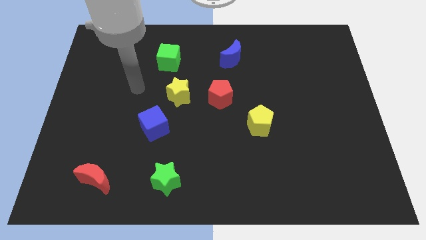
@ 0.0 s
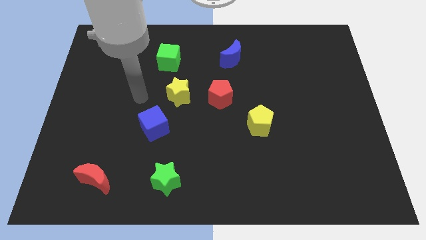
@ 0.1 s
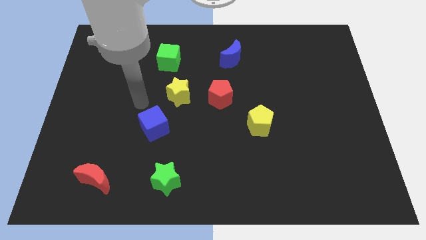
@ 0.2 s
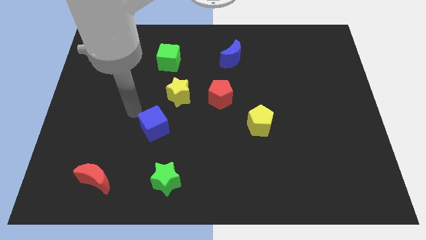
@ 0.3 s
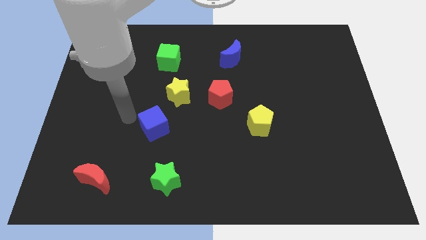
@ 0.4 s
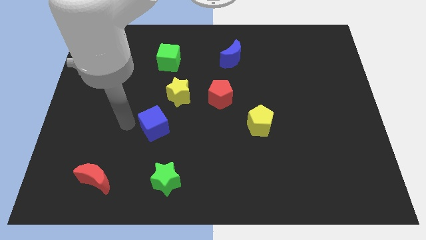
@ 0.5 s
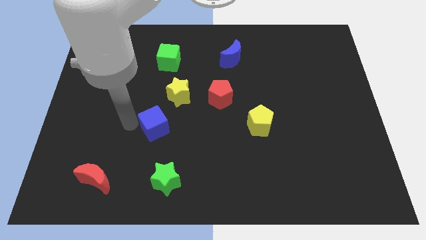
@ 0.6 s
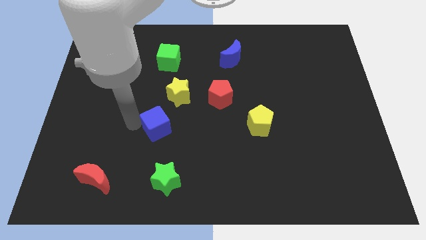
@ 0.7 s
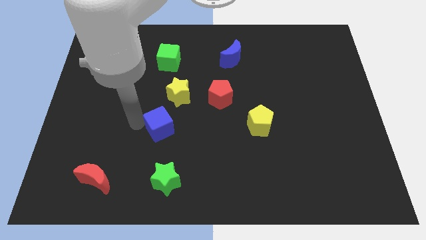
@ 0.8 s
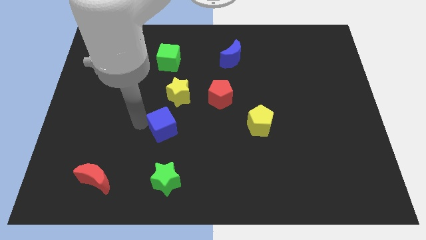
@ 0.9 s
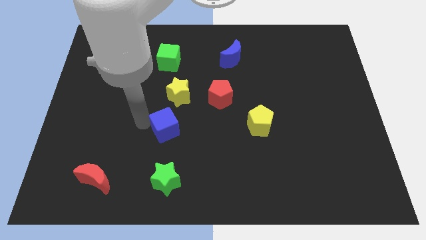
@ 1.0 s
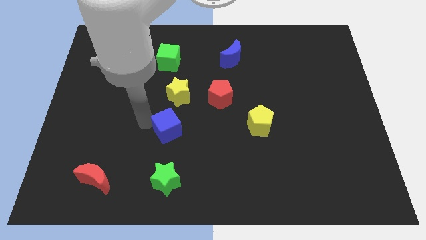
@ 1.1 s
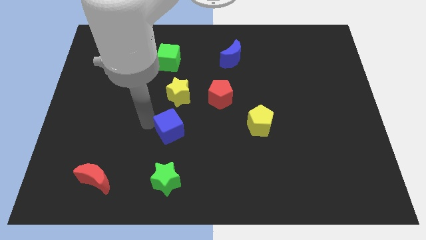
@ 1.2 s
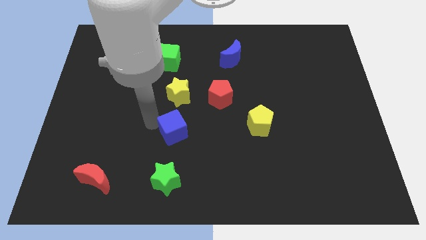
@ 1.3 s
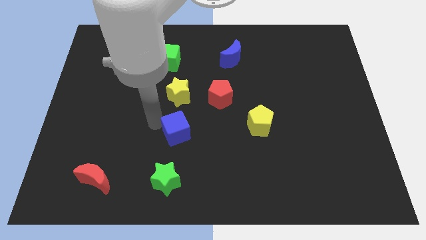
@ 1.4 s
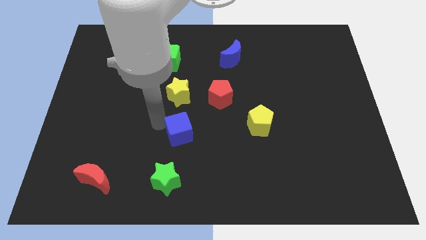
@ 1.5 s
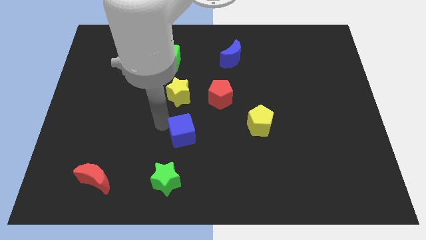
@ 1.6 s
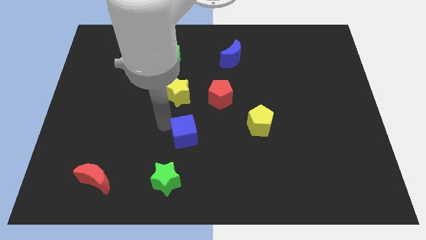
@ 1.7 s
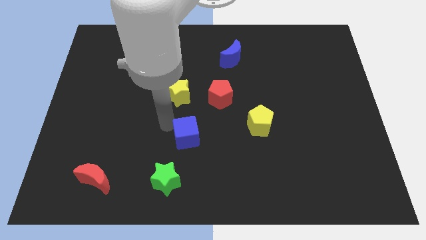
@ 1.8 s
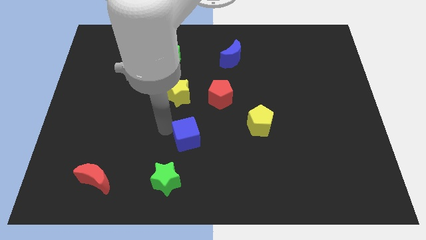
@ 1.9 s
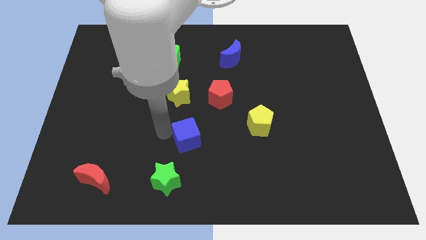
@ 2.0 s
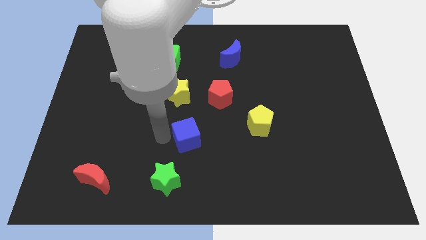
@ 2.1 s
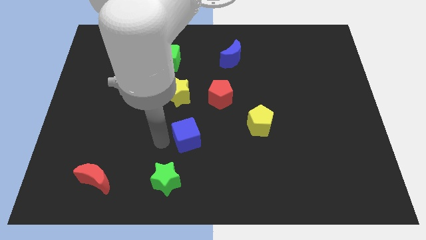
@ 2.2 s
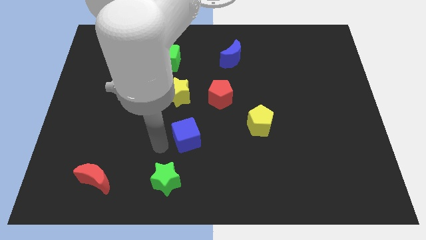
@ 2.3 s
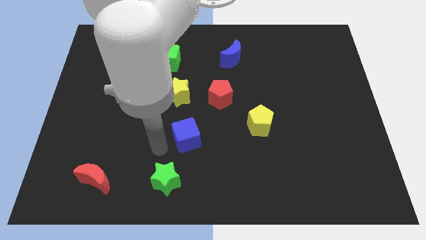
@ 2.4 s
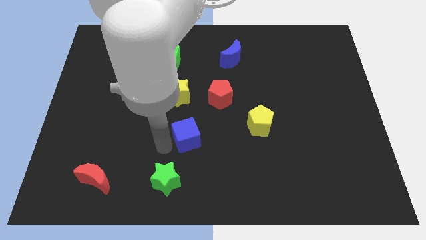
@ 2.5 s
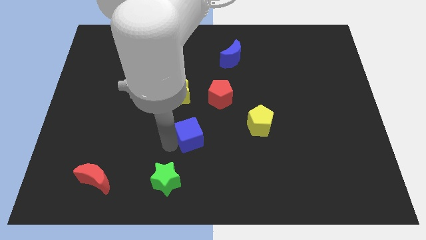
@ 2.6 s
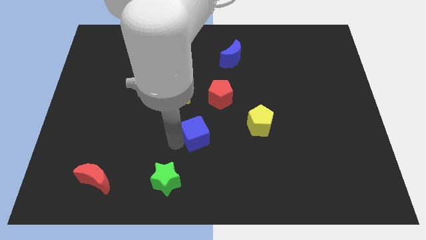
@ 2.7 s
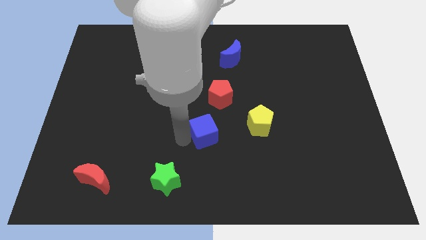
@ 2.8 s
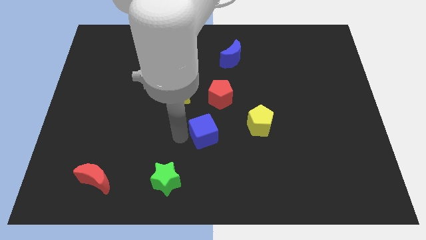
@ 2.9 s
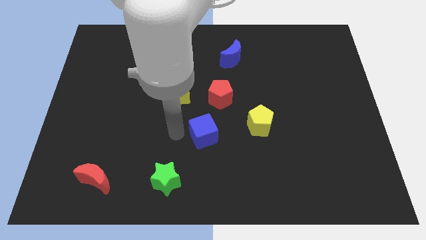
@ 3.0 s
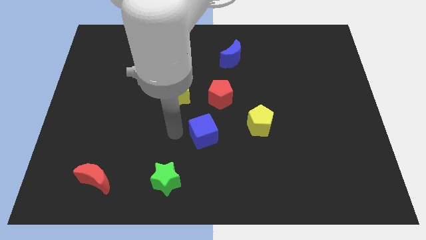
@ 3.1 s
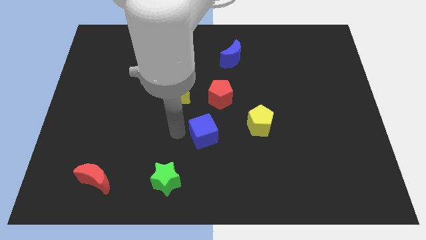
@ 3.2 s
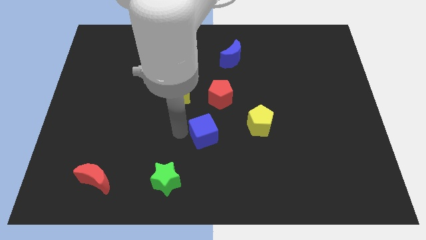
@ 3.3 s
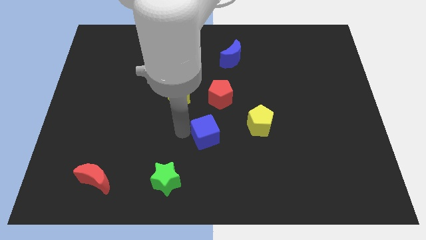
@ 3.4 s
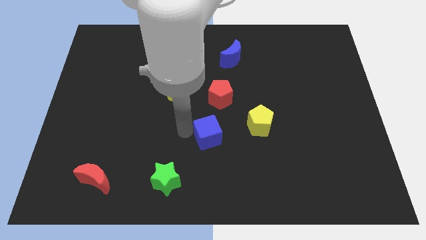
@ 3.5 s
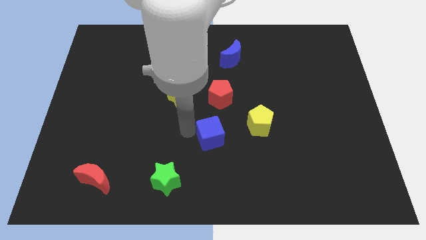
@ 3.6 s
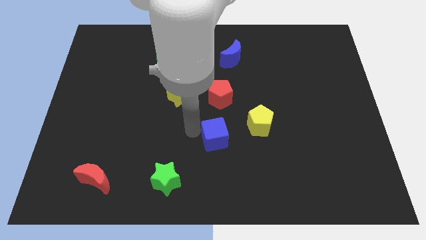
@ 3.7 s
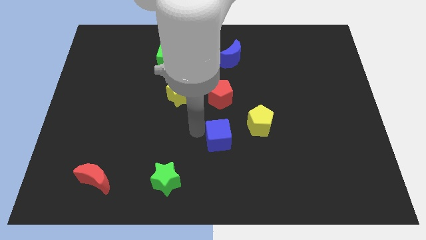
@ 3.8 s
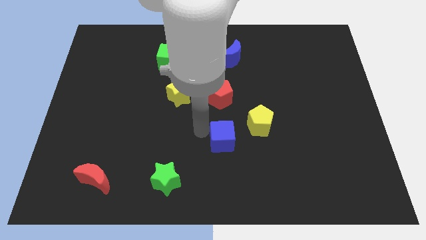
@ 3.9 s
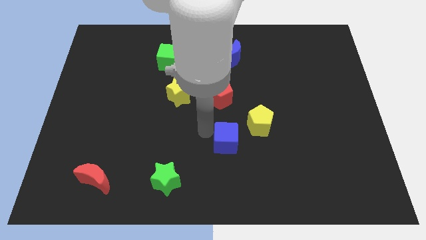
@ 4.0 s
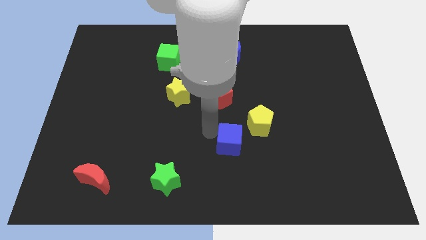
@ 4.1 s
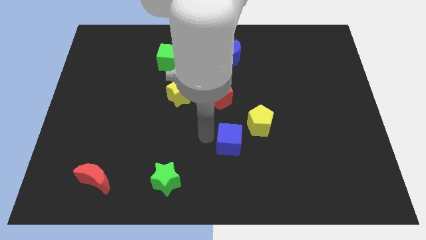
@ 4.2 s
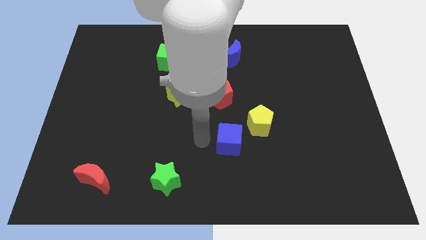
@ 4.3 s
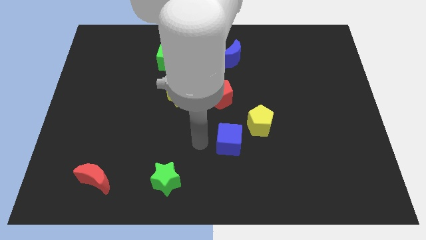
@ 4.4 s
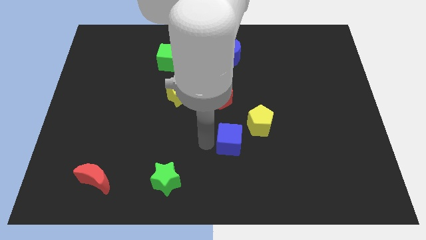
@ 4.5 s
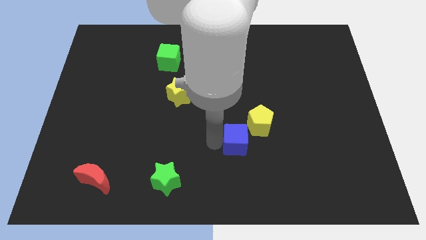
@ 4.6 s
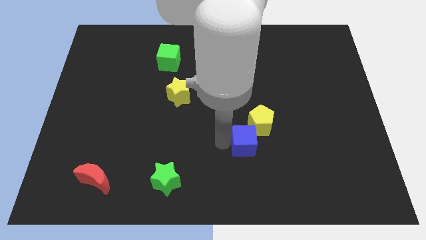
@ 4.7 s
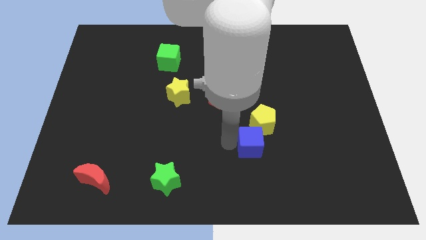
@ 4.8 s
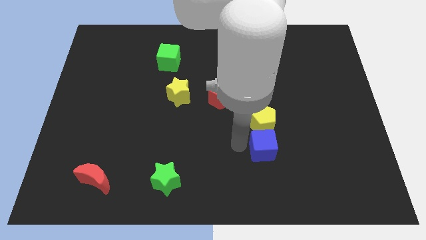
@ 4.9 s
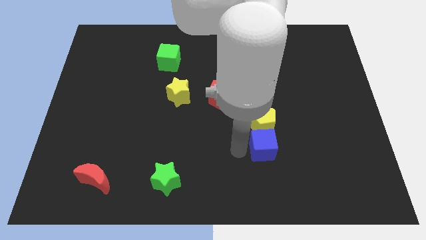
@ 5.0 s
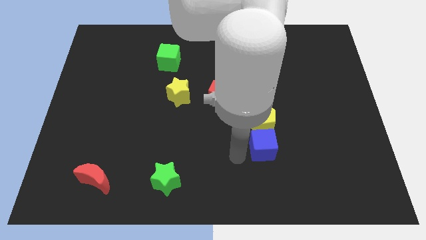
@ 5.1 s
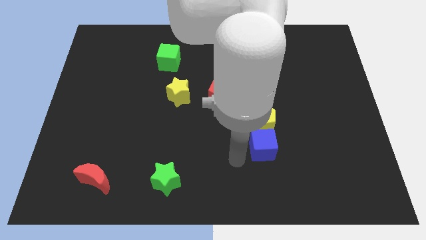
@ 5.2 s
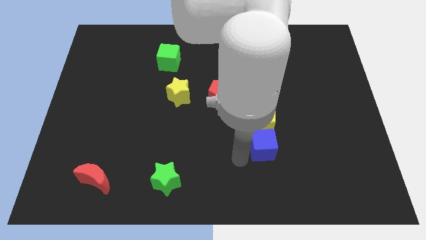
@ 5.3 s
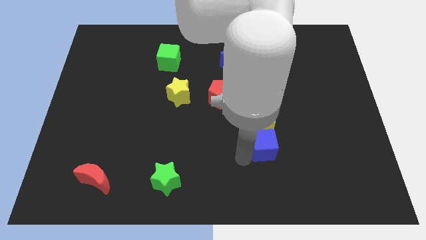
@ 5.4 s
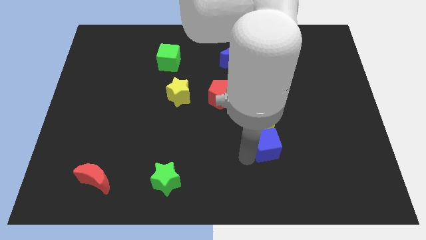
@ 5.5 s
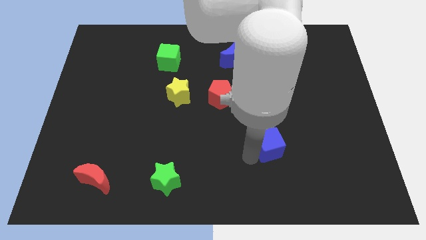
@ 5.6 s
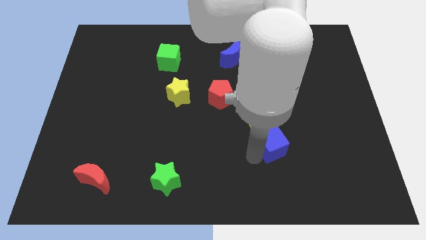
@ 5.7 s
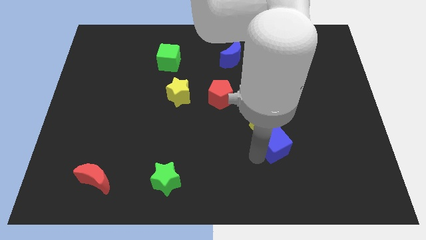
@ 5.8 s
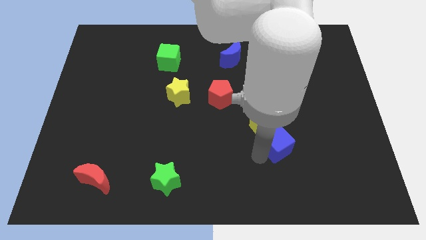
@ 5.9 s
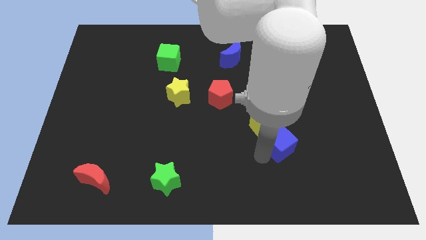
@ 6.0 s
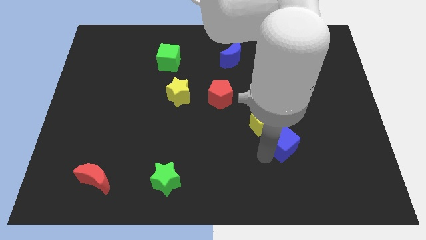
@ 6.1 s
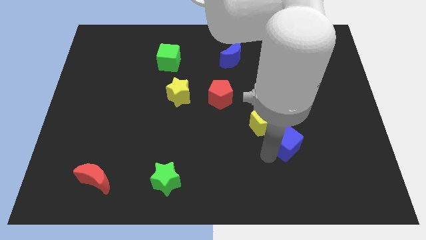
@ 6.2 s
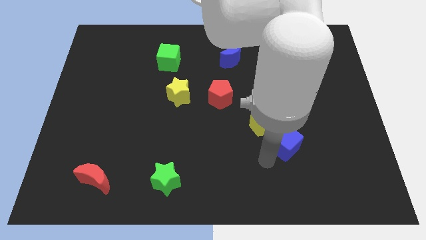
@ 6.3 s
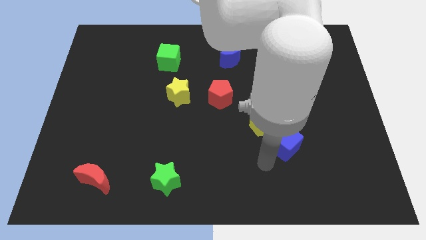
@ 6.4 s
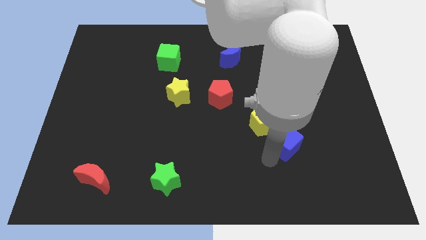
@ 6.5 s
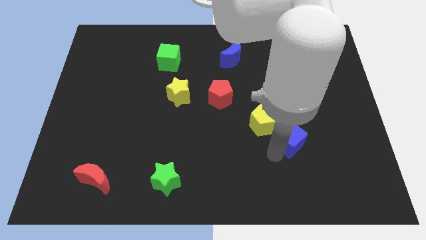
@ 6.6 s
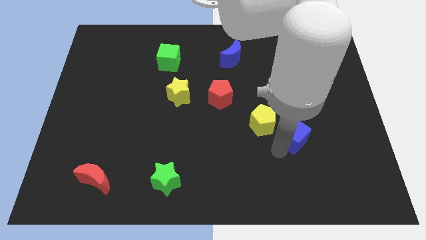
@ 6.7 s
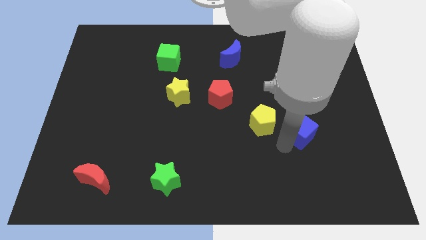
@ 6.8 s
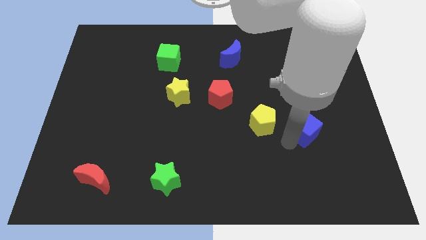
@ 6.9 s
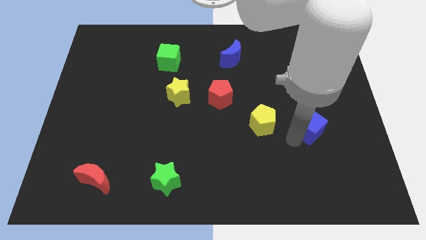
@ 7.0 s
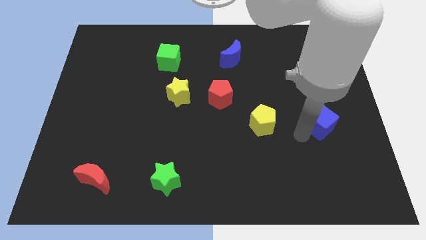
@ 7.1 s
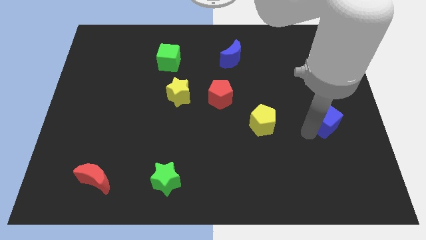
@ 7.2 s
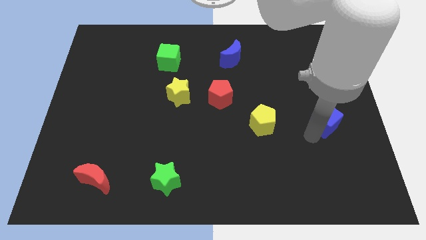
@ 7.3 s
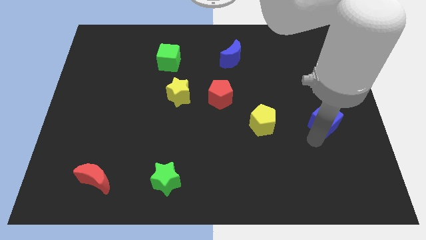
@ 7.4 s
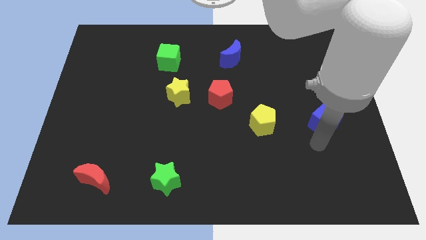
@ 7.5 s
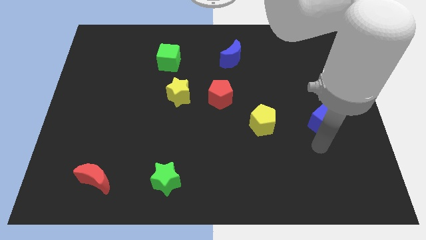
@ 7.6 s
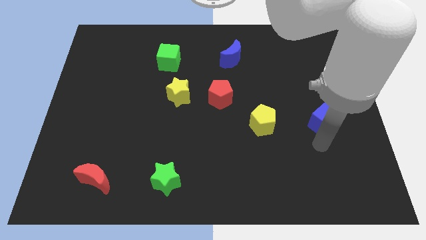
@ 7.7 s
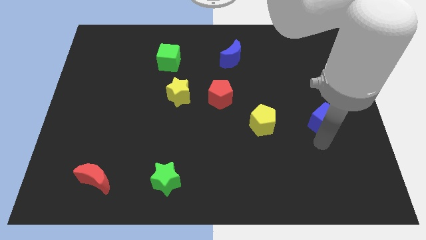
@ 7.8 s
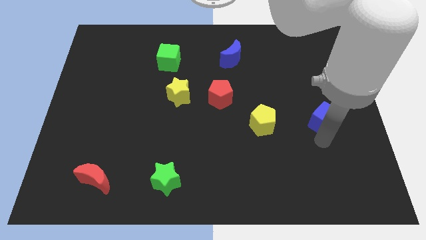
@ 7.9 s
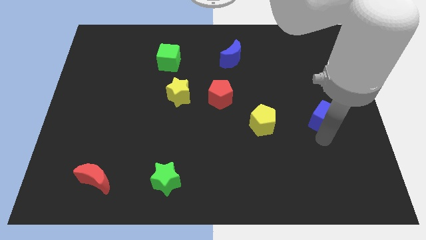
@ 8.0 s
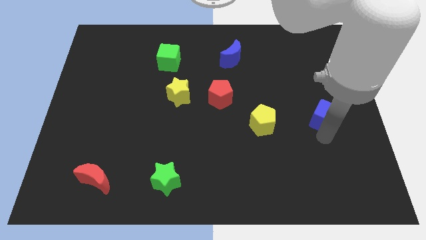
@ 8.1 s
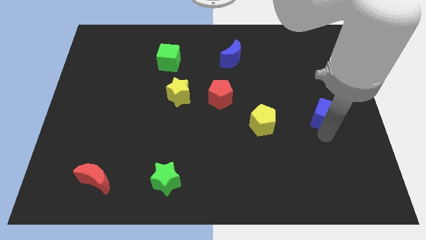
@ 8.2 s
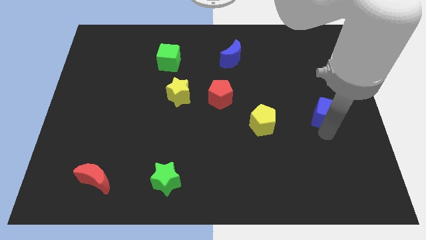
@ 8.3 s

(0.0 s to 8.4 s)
put the blue cube to the center right
